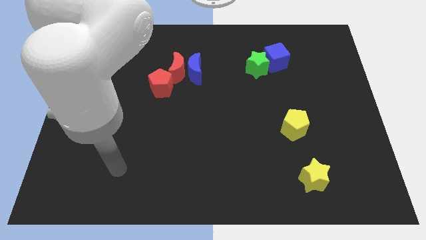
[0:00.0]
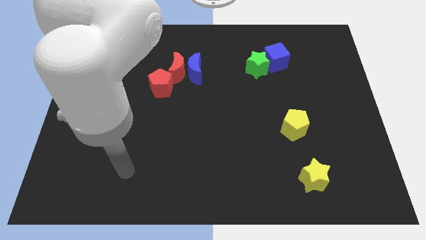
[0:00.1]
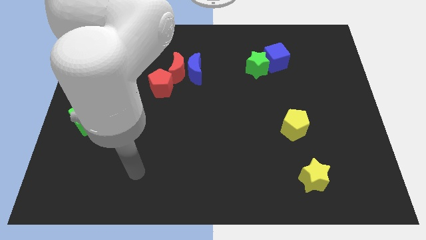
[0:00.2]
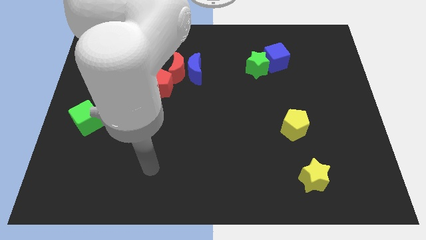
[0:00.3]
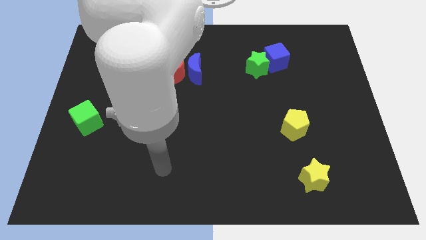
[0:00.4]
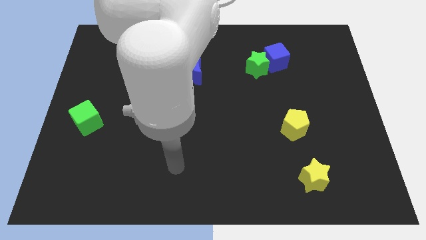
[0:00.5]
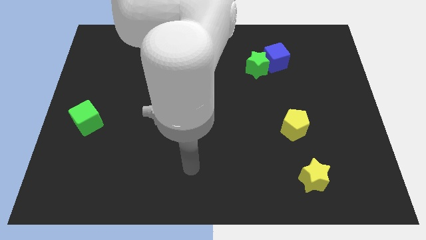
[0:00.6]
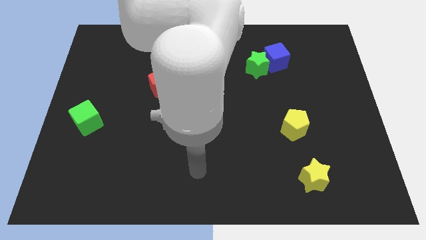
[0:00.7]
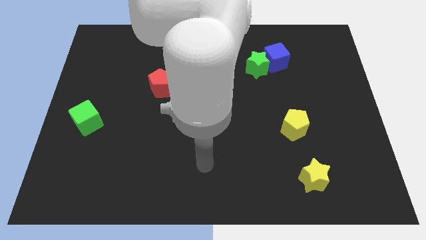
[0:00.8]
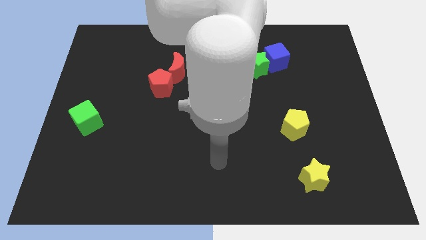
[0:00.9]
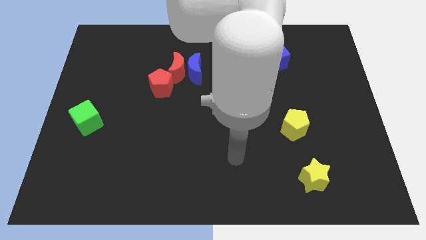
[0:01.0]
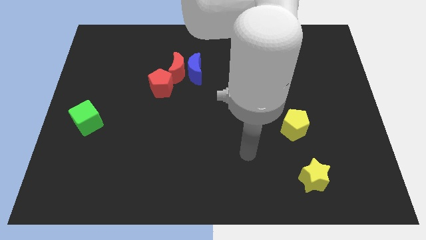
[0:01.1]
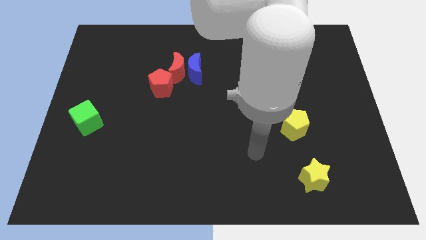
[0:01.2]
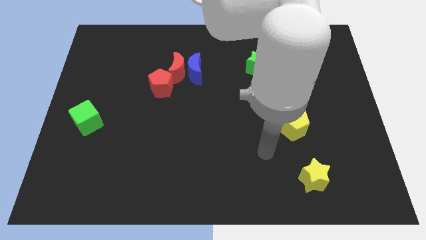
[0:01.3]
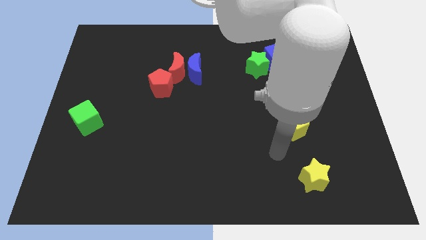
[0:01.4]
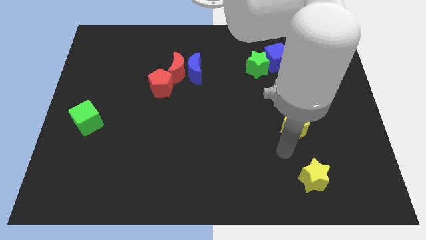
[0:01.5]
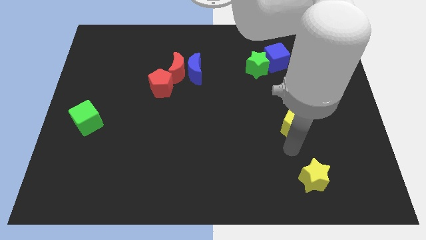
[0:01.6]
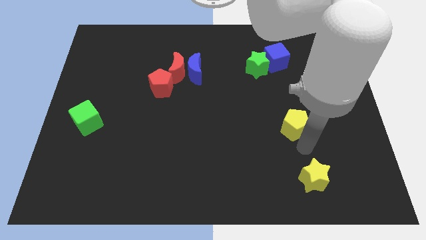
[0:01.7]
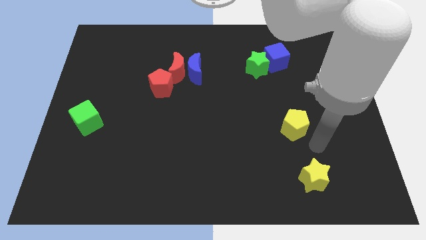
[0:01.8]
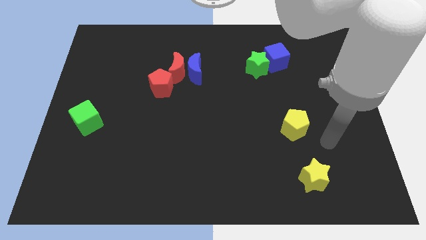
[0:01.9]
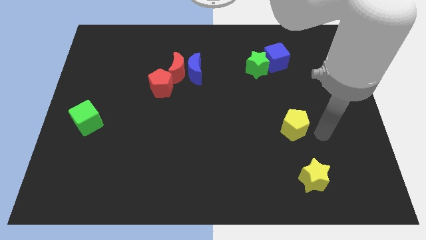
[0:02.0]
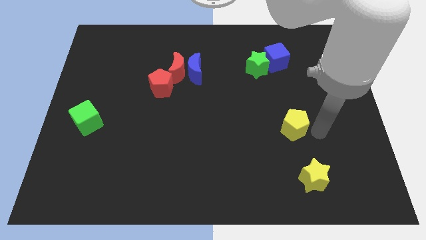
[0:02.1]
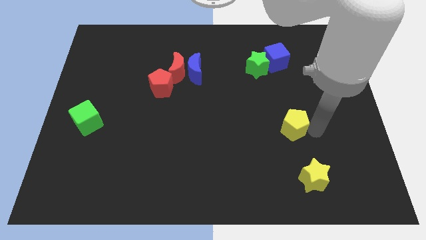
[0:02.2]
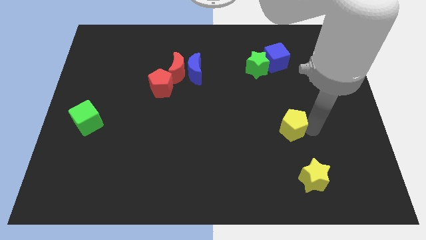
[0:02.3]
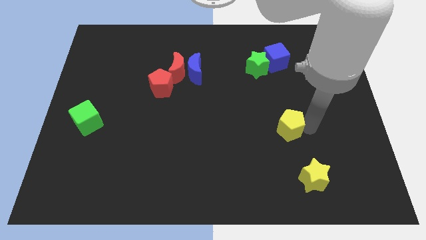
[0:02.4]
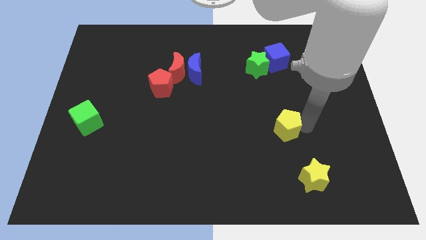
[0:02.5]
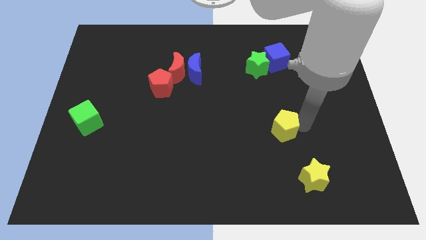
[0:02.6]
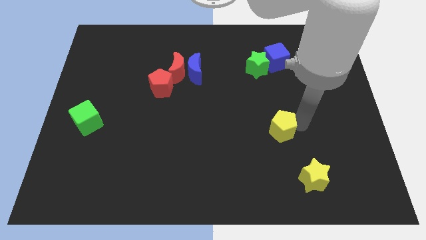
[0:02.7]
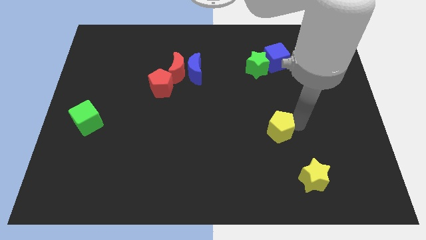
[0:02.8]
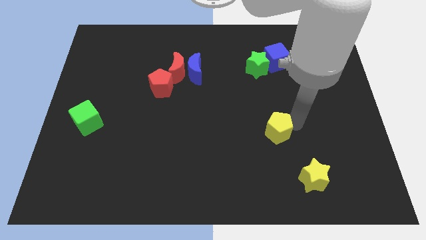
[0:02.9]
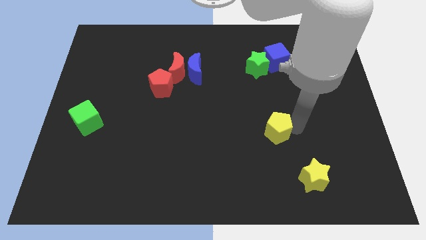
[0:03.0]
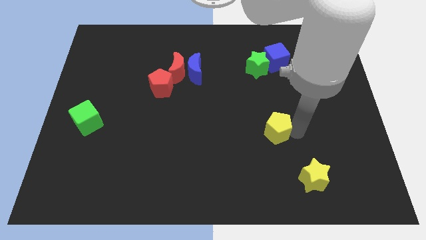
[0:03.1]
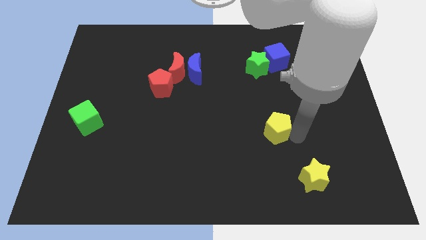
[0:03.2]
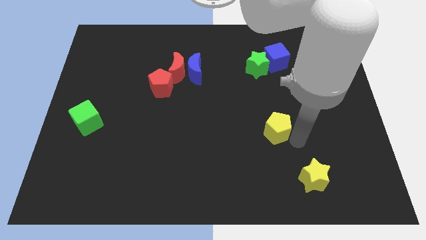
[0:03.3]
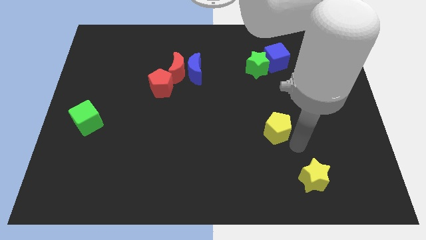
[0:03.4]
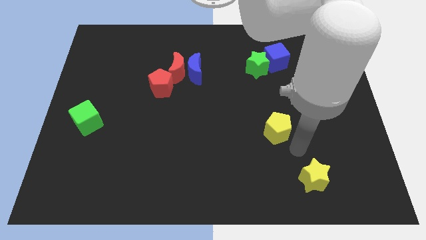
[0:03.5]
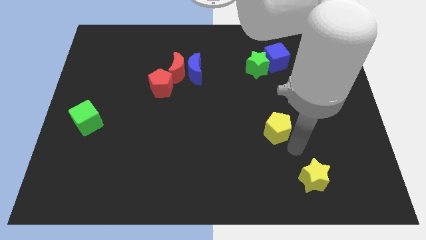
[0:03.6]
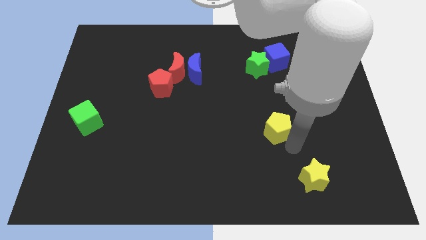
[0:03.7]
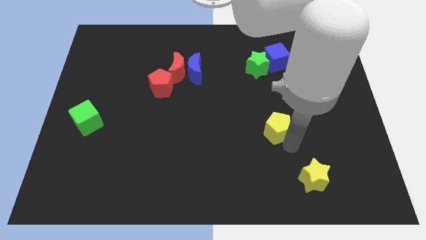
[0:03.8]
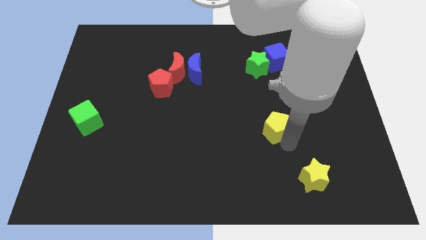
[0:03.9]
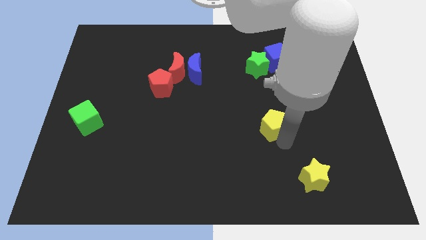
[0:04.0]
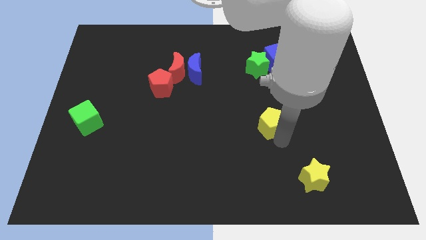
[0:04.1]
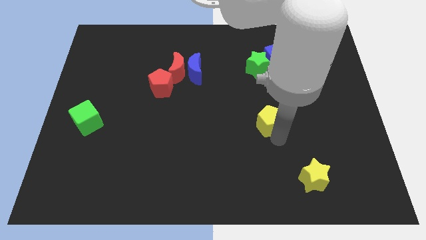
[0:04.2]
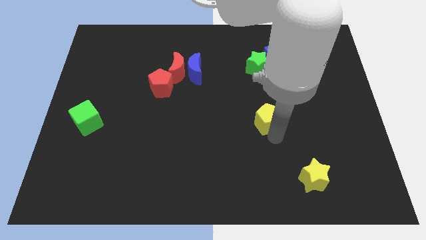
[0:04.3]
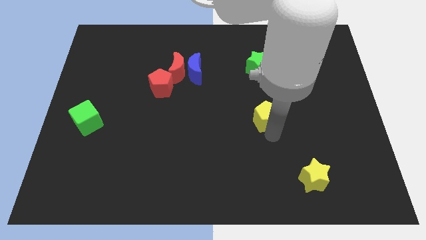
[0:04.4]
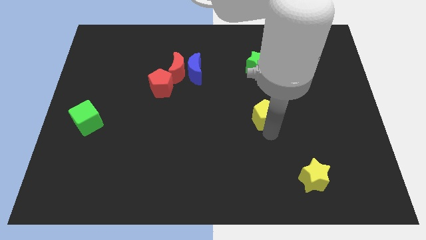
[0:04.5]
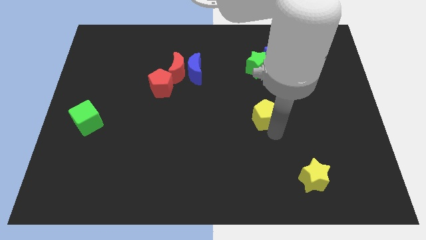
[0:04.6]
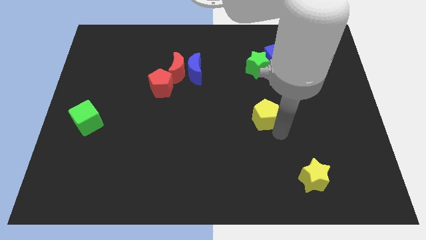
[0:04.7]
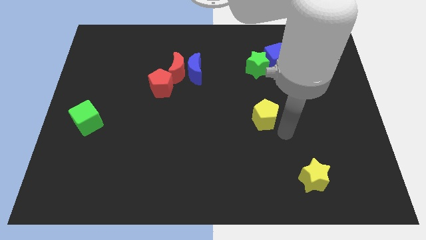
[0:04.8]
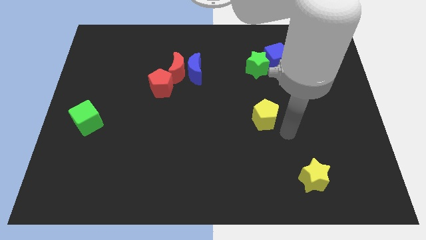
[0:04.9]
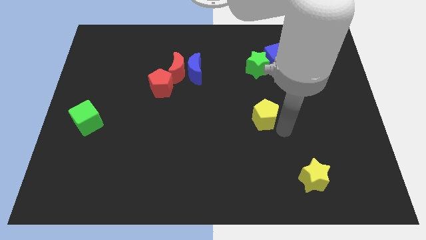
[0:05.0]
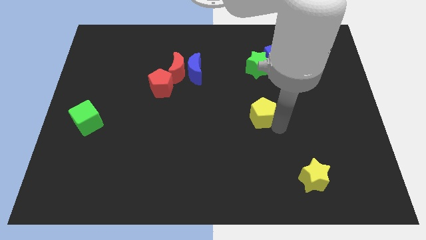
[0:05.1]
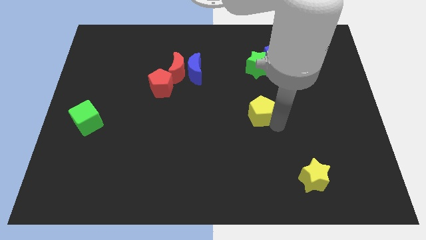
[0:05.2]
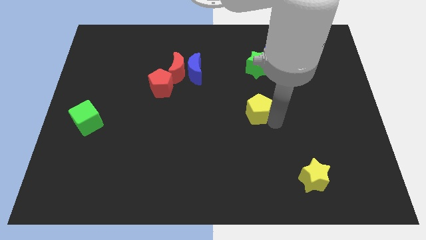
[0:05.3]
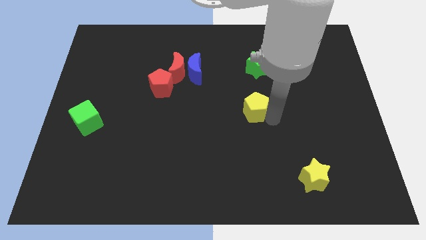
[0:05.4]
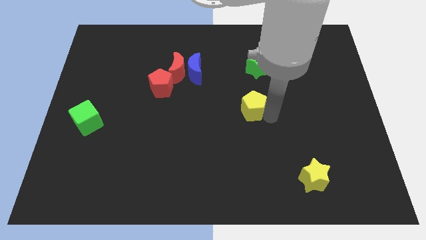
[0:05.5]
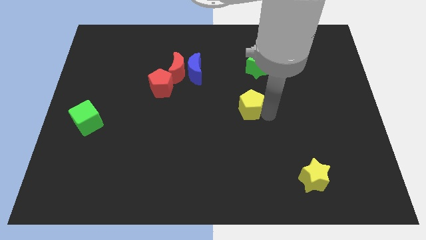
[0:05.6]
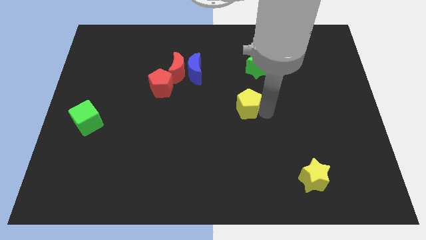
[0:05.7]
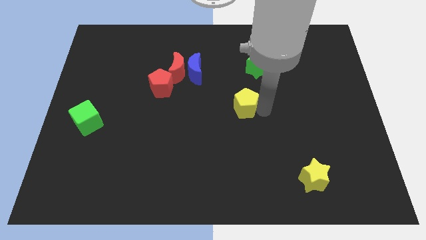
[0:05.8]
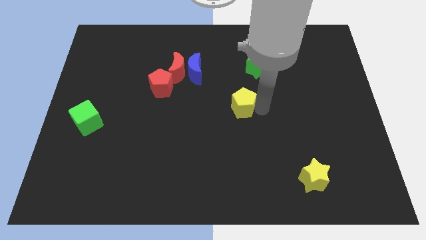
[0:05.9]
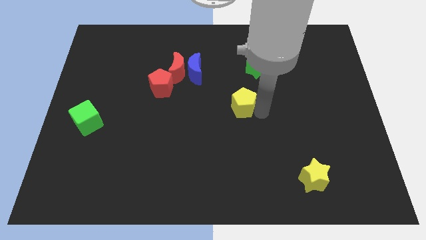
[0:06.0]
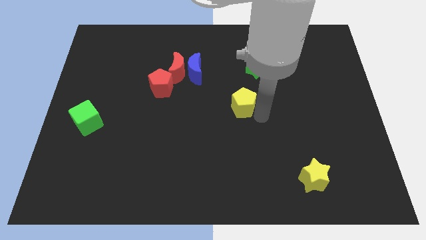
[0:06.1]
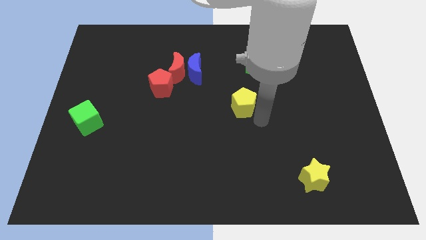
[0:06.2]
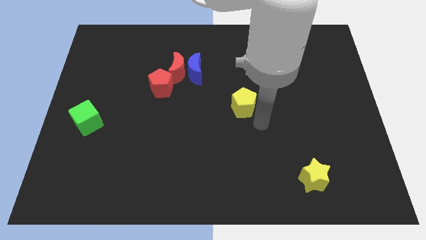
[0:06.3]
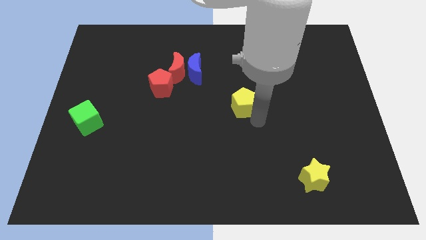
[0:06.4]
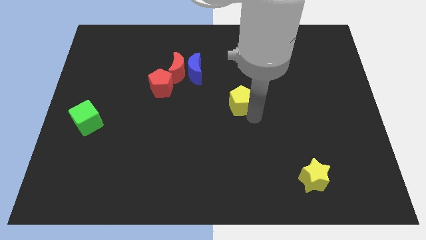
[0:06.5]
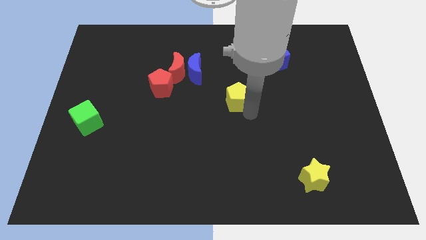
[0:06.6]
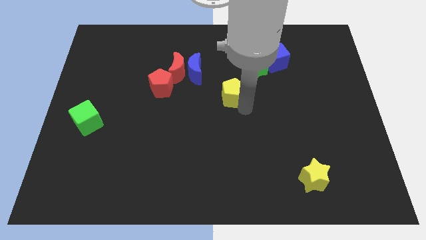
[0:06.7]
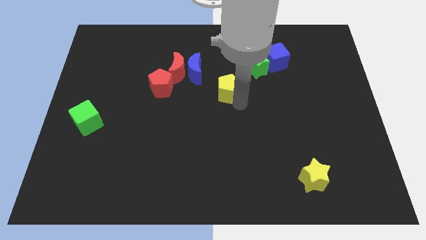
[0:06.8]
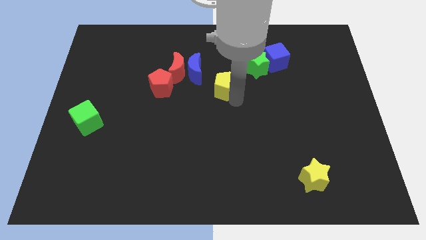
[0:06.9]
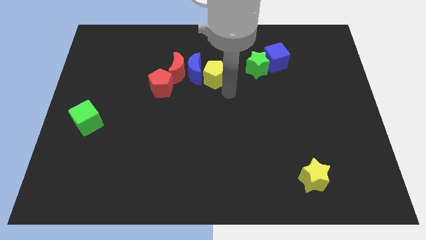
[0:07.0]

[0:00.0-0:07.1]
move the yellow pentagon diagonally upwards and to the left

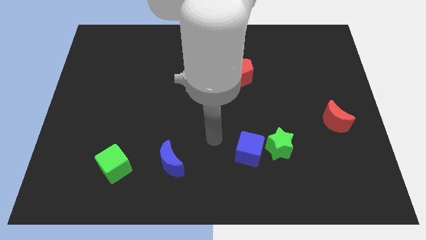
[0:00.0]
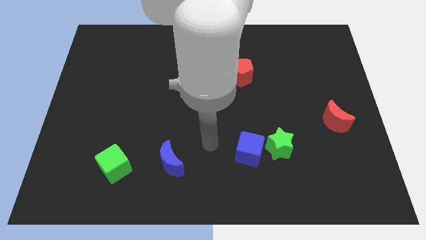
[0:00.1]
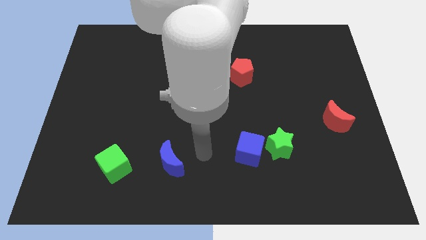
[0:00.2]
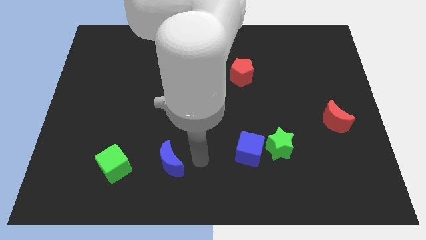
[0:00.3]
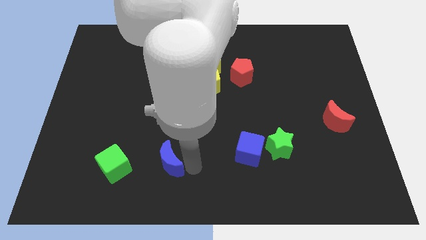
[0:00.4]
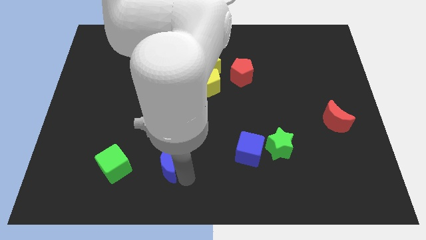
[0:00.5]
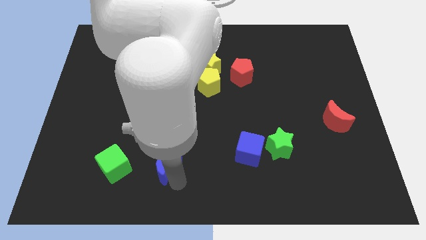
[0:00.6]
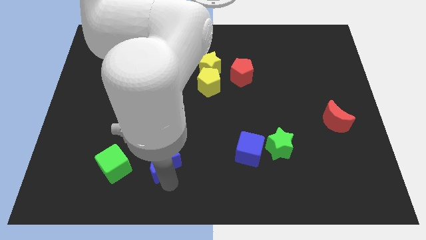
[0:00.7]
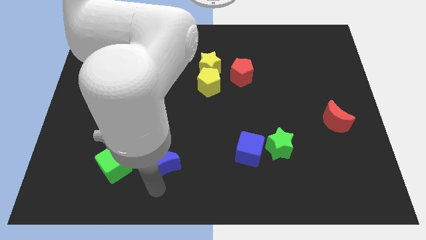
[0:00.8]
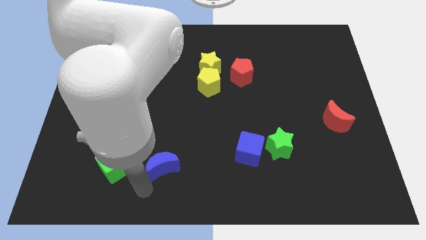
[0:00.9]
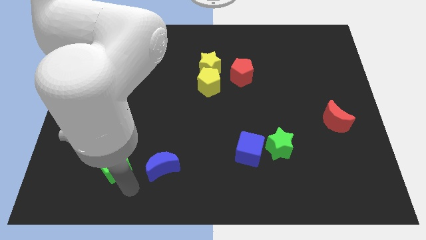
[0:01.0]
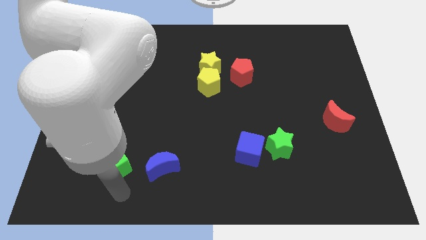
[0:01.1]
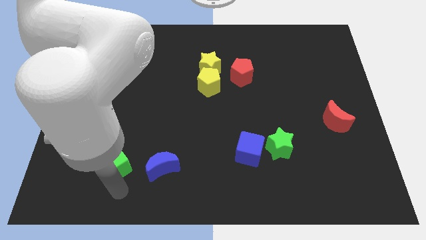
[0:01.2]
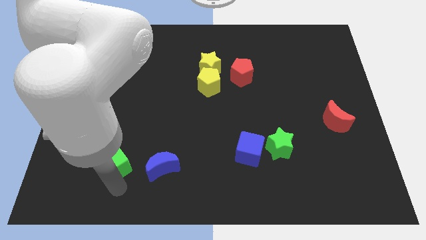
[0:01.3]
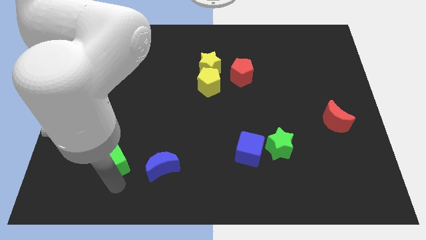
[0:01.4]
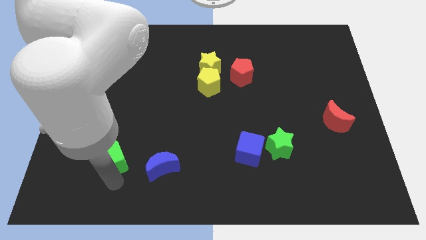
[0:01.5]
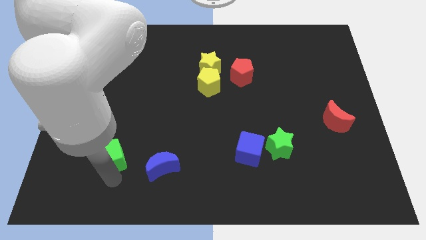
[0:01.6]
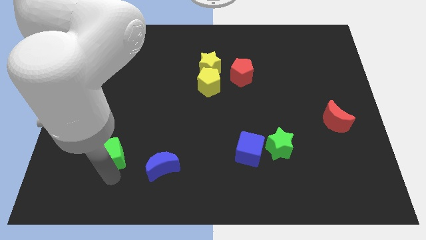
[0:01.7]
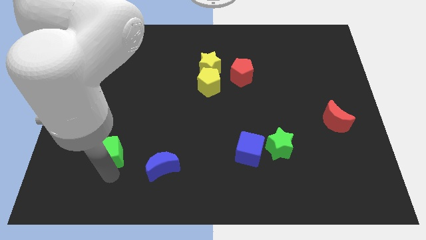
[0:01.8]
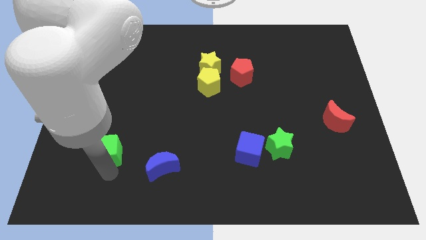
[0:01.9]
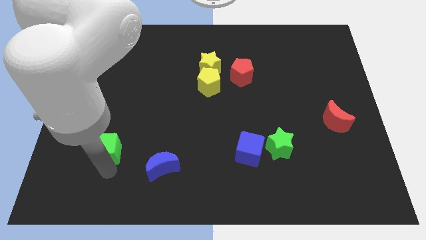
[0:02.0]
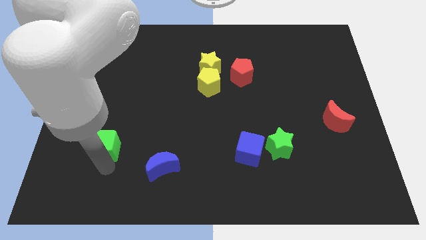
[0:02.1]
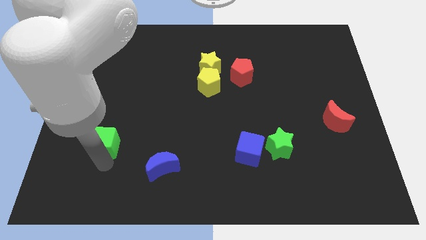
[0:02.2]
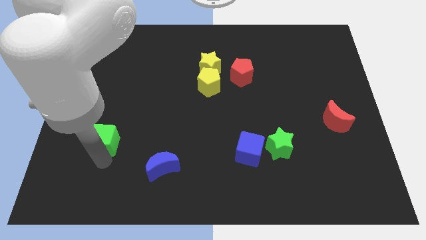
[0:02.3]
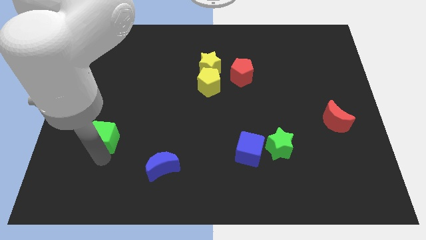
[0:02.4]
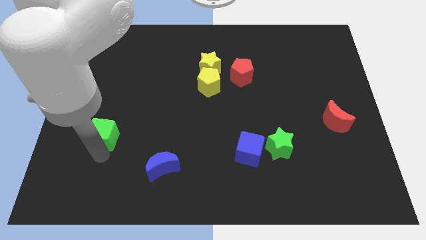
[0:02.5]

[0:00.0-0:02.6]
push the green cube a little bit upwards
